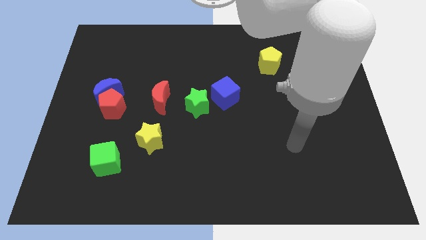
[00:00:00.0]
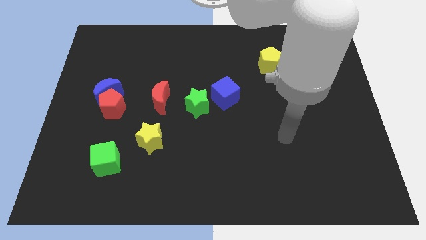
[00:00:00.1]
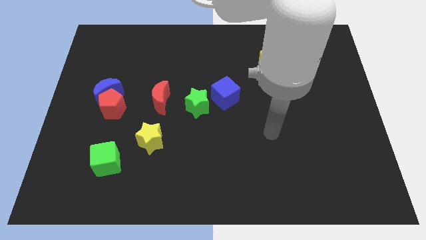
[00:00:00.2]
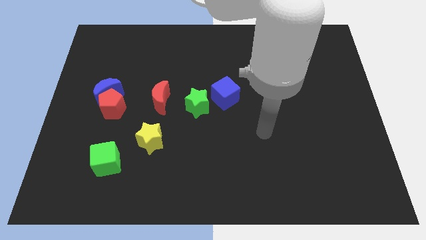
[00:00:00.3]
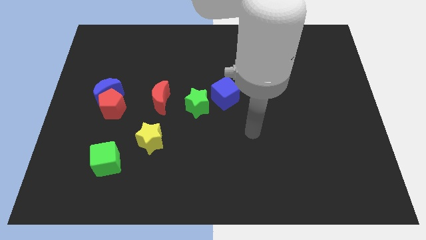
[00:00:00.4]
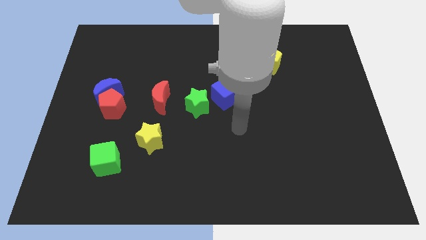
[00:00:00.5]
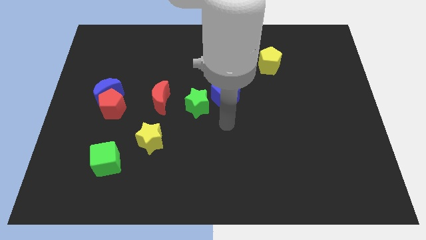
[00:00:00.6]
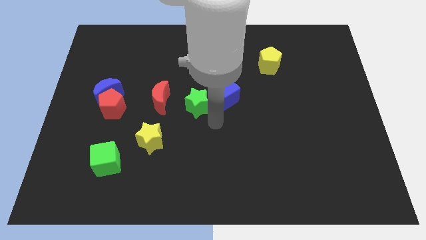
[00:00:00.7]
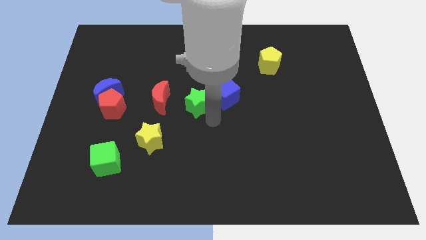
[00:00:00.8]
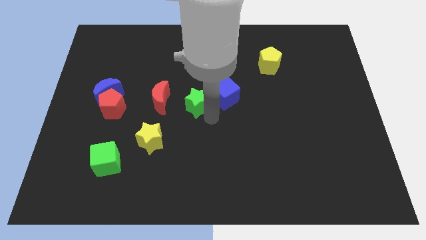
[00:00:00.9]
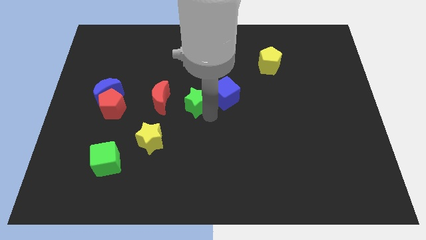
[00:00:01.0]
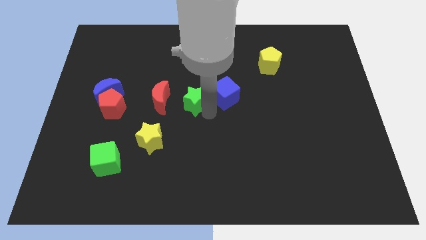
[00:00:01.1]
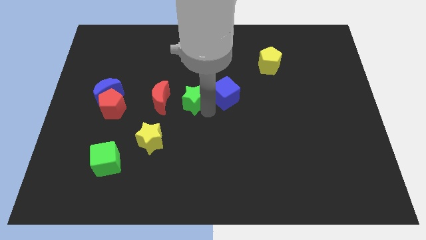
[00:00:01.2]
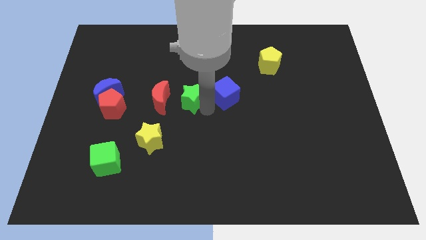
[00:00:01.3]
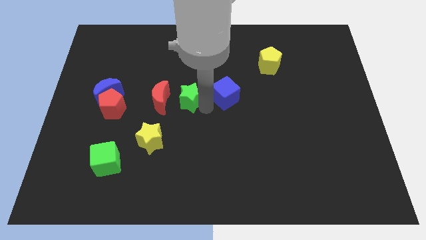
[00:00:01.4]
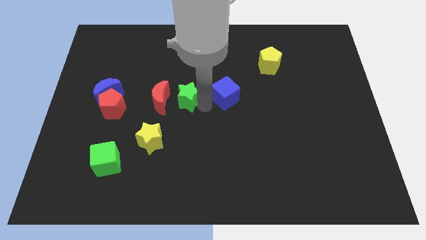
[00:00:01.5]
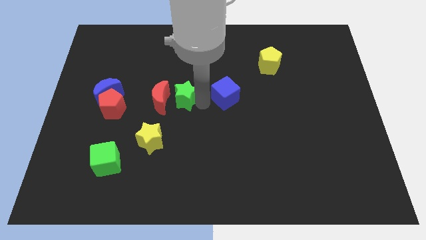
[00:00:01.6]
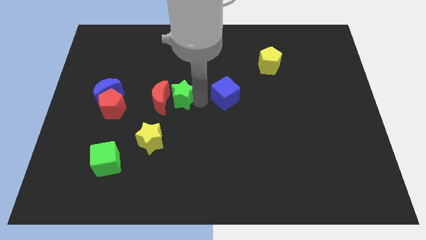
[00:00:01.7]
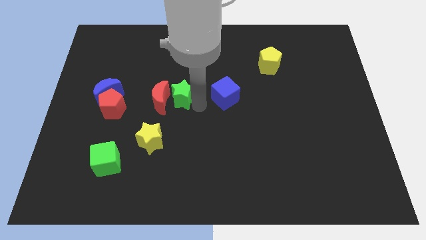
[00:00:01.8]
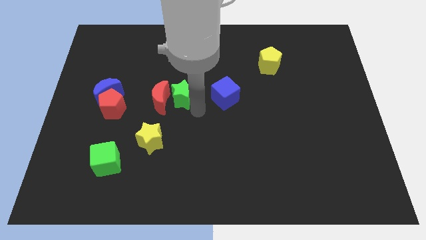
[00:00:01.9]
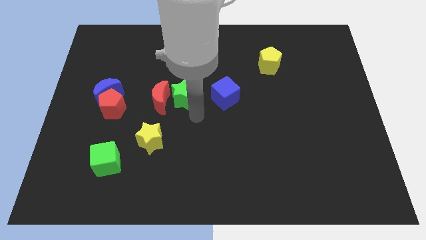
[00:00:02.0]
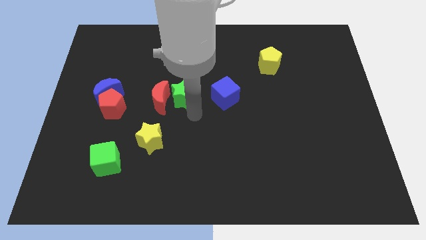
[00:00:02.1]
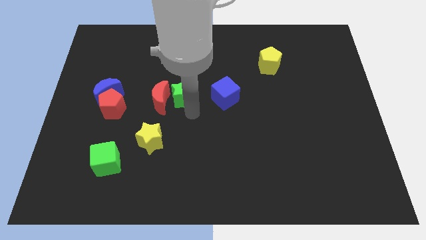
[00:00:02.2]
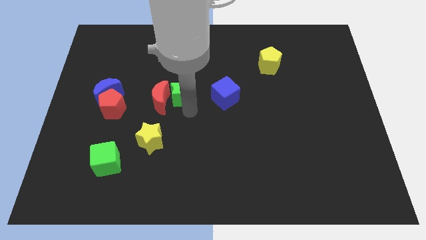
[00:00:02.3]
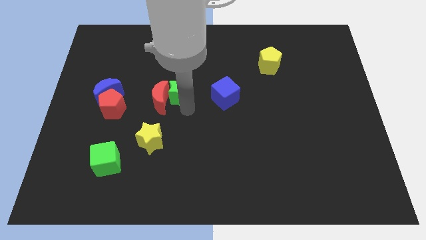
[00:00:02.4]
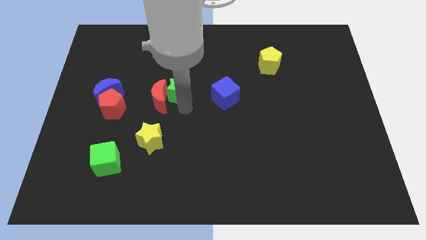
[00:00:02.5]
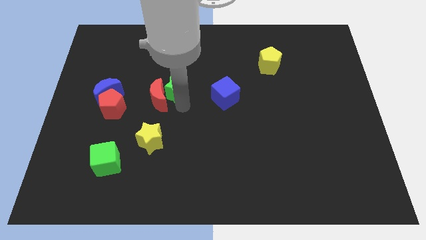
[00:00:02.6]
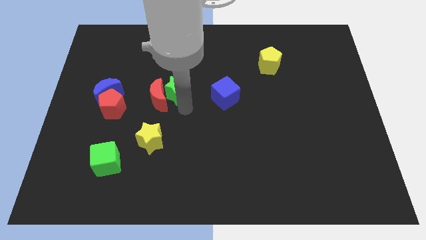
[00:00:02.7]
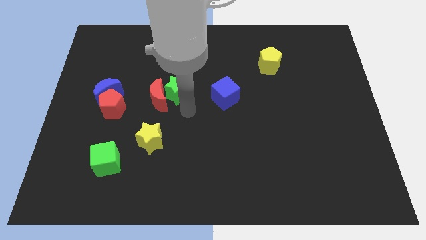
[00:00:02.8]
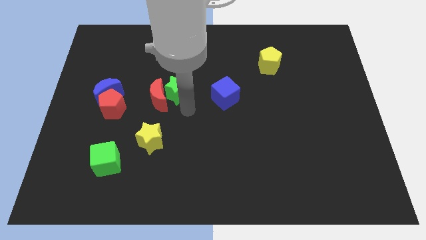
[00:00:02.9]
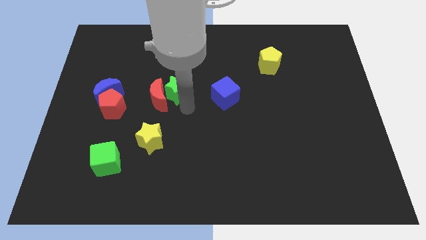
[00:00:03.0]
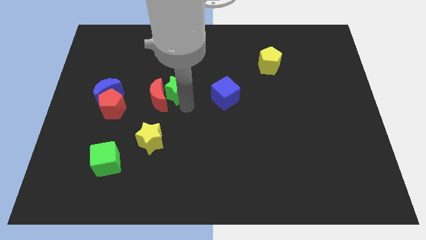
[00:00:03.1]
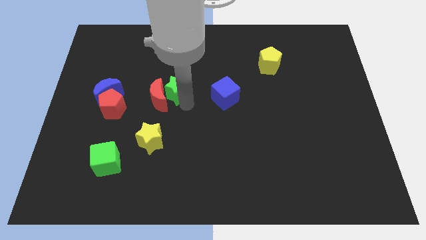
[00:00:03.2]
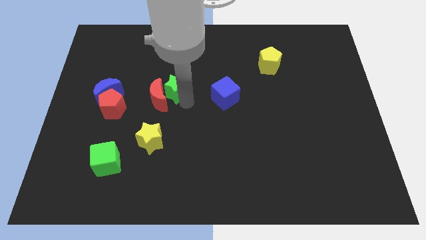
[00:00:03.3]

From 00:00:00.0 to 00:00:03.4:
push the green star upwards and then to the left somewhat

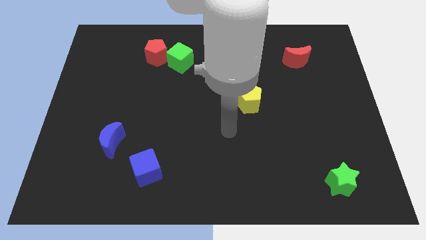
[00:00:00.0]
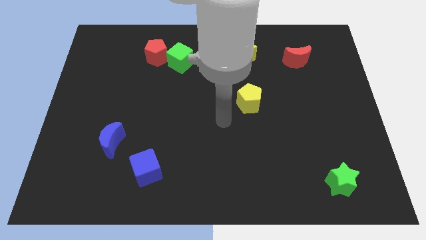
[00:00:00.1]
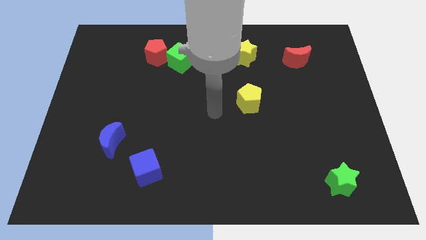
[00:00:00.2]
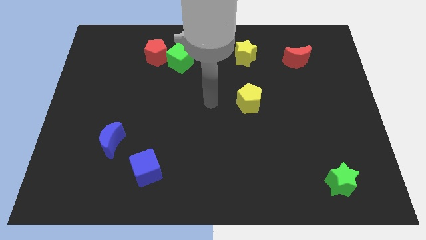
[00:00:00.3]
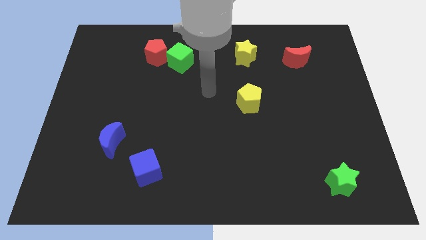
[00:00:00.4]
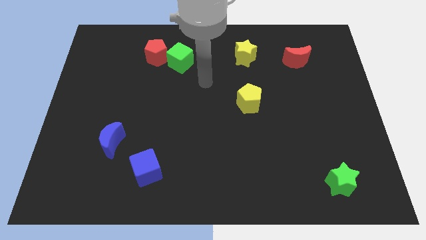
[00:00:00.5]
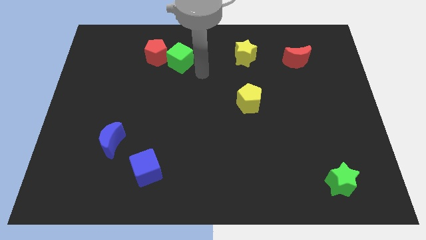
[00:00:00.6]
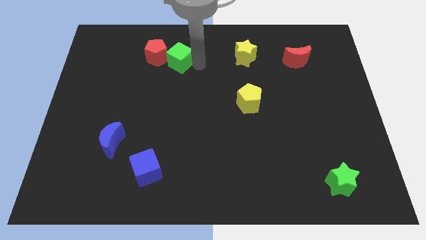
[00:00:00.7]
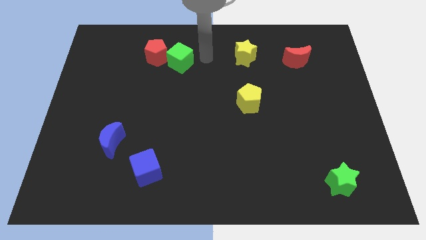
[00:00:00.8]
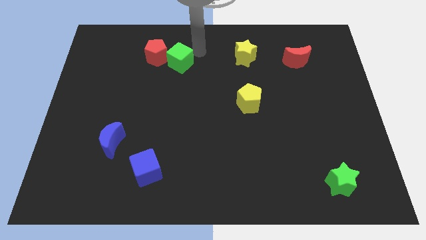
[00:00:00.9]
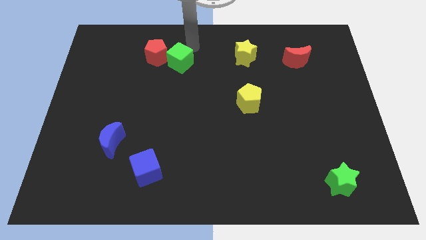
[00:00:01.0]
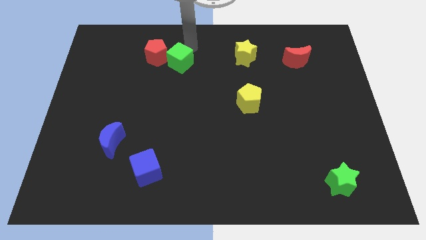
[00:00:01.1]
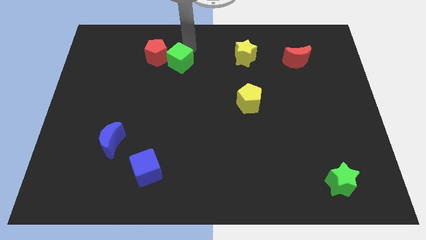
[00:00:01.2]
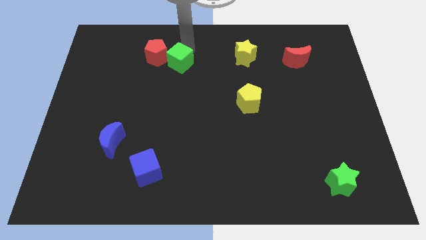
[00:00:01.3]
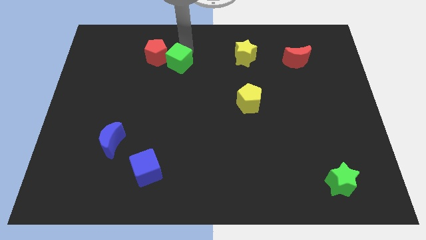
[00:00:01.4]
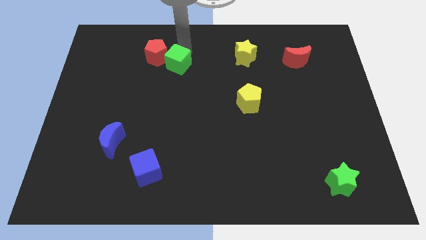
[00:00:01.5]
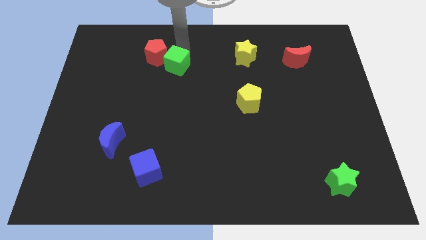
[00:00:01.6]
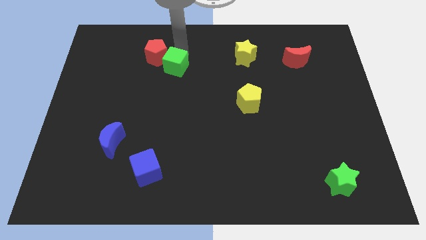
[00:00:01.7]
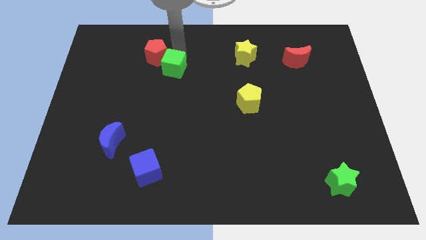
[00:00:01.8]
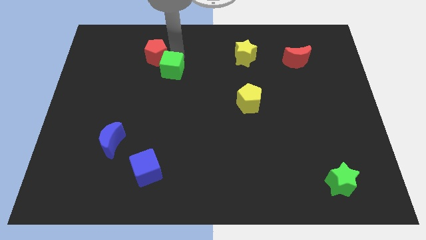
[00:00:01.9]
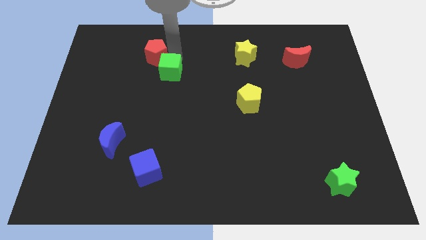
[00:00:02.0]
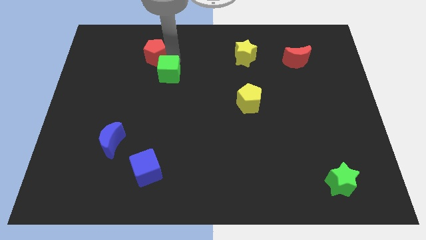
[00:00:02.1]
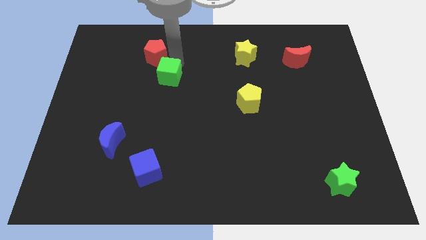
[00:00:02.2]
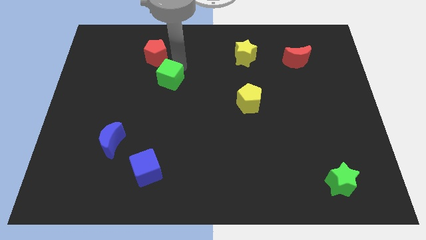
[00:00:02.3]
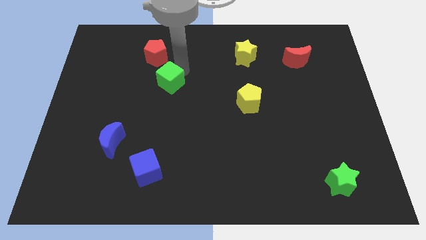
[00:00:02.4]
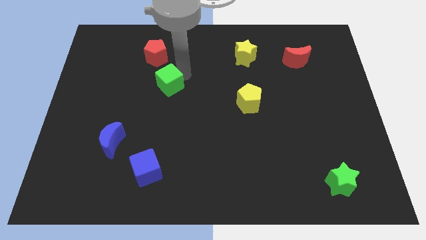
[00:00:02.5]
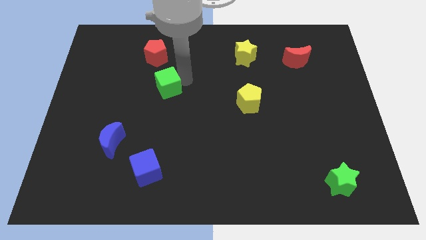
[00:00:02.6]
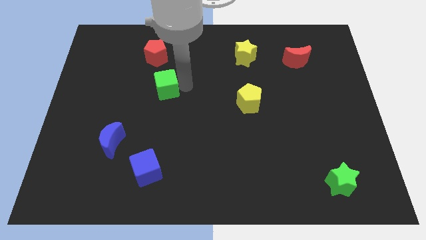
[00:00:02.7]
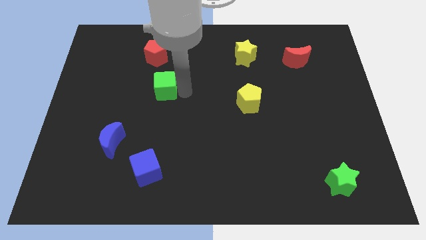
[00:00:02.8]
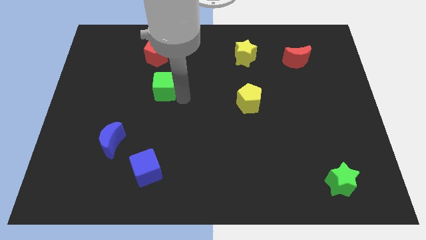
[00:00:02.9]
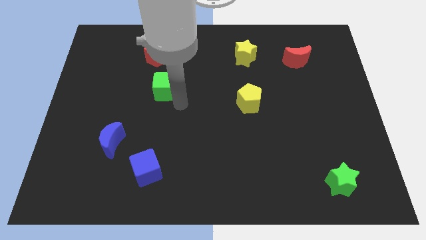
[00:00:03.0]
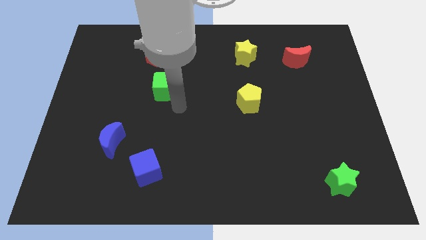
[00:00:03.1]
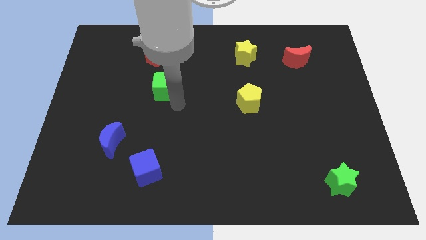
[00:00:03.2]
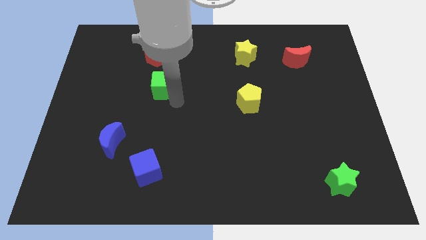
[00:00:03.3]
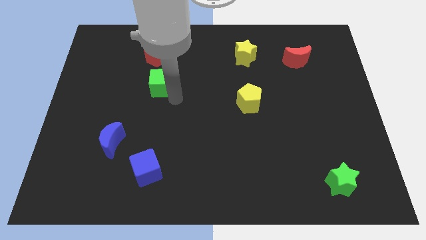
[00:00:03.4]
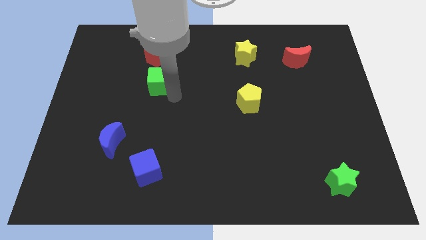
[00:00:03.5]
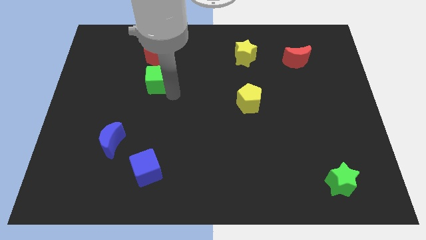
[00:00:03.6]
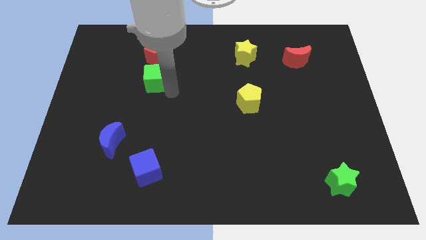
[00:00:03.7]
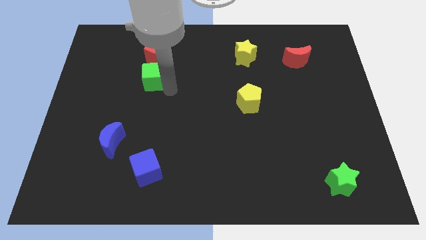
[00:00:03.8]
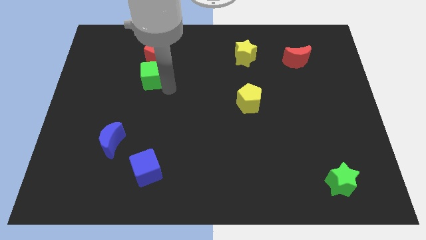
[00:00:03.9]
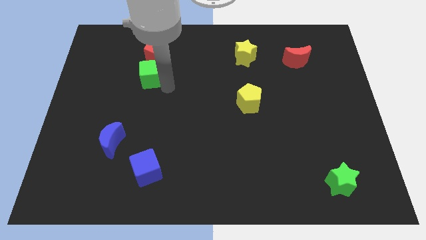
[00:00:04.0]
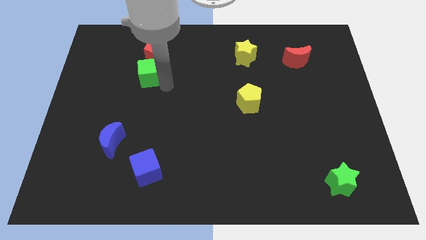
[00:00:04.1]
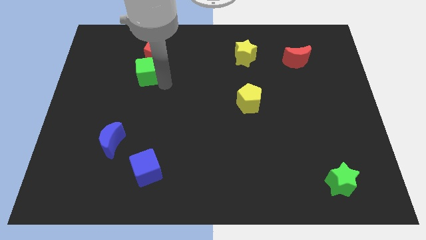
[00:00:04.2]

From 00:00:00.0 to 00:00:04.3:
slightly move the green cube to the left

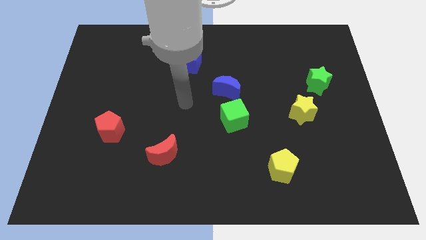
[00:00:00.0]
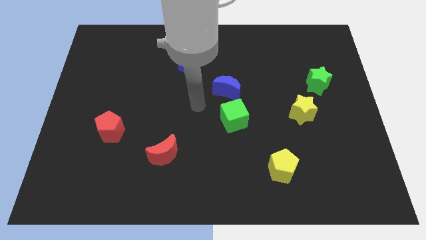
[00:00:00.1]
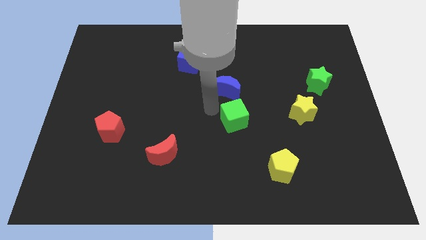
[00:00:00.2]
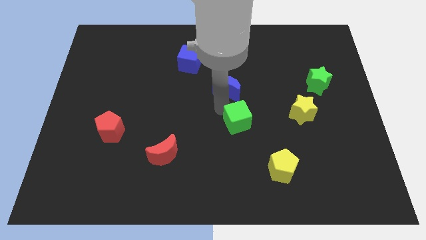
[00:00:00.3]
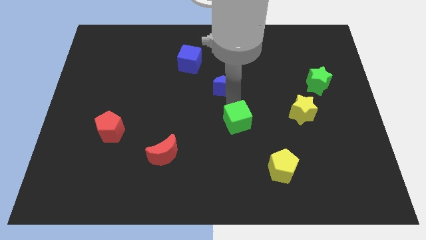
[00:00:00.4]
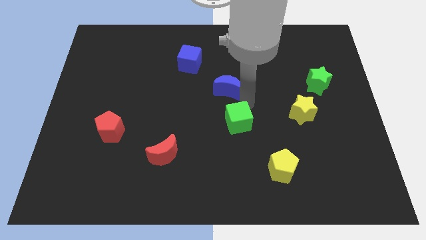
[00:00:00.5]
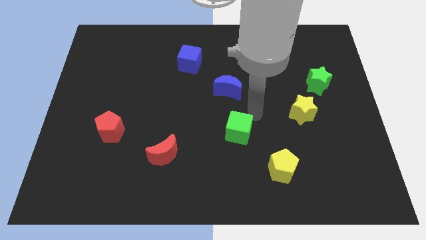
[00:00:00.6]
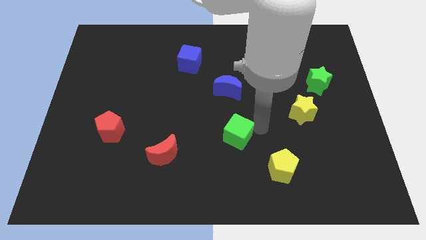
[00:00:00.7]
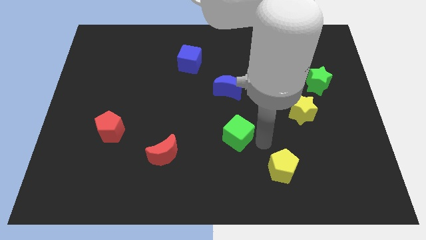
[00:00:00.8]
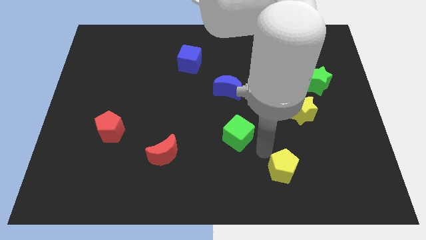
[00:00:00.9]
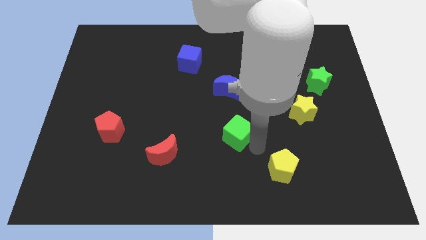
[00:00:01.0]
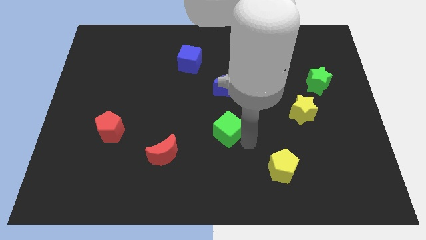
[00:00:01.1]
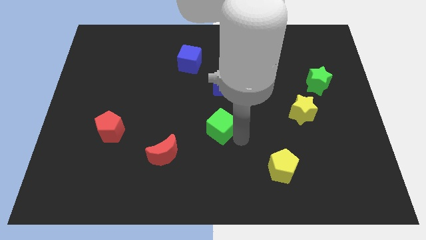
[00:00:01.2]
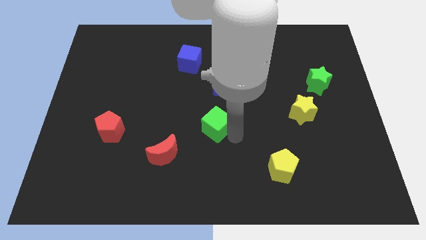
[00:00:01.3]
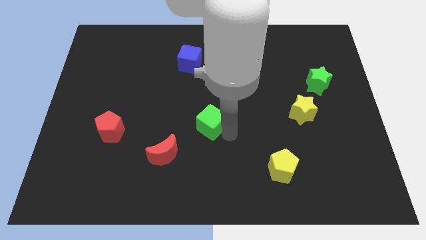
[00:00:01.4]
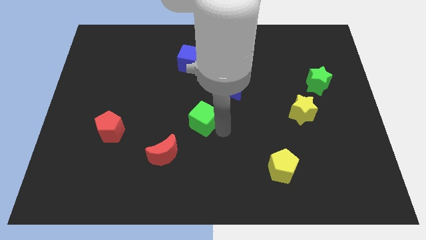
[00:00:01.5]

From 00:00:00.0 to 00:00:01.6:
slightly slide the green cube to the left
